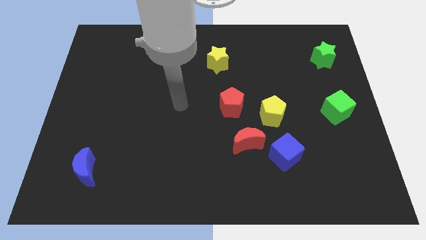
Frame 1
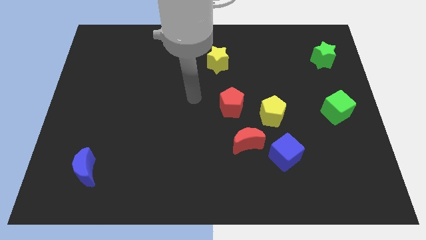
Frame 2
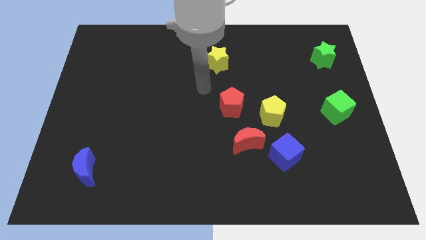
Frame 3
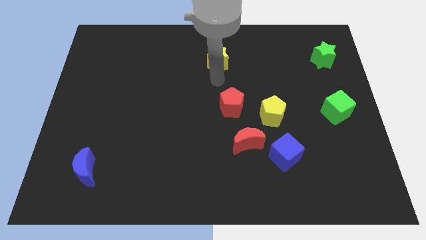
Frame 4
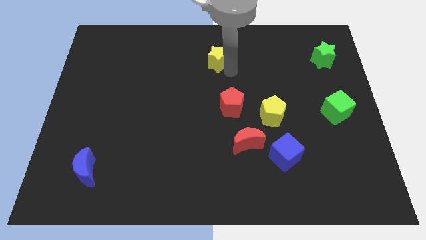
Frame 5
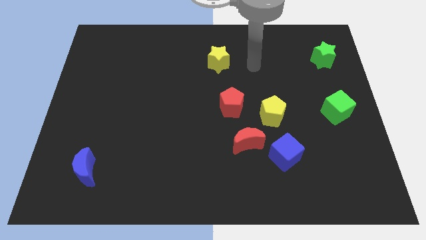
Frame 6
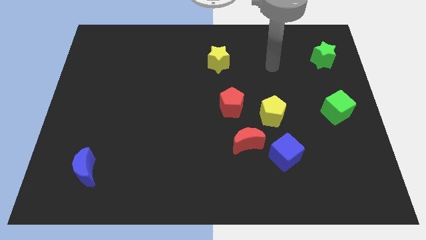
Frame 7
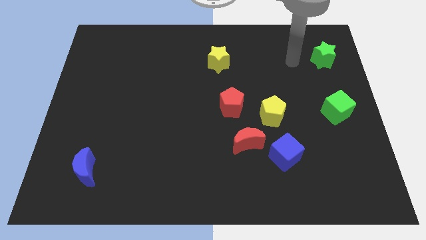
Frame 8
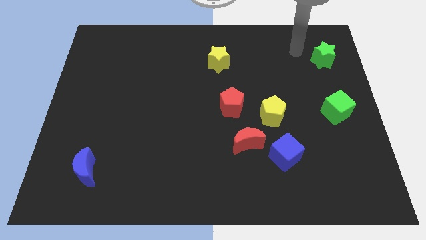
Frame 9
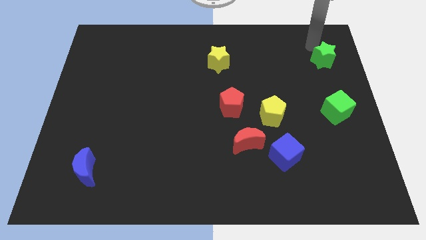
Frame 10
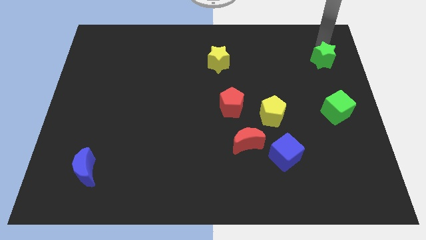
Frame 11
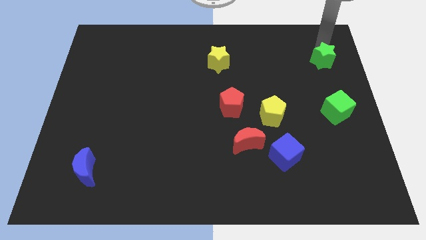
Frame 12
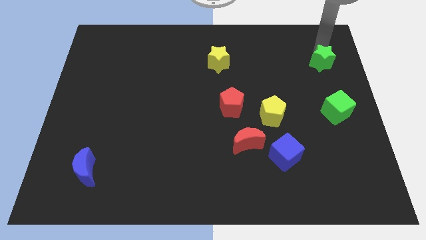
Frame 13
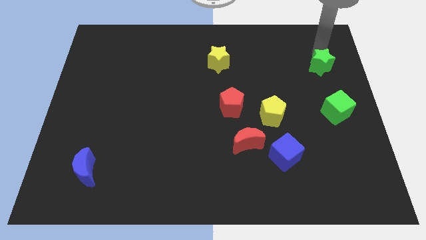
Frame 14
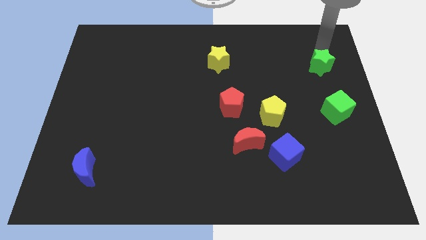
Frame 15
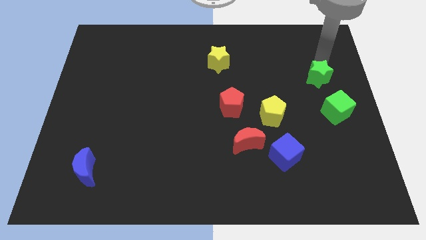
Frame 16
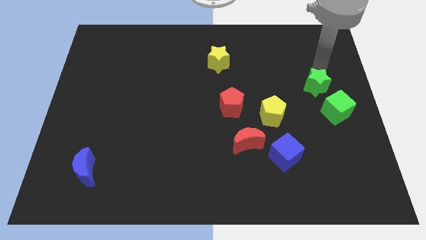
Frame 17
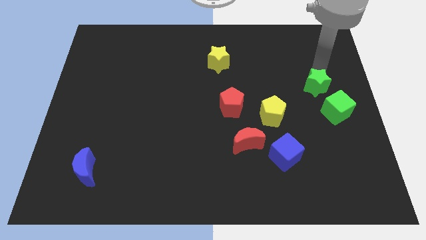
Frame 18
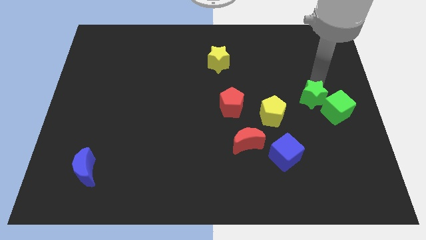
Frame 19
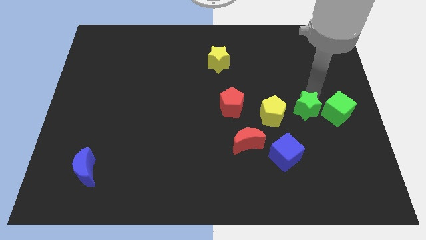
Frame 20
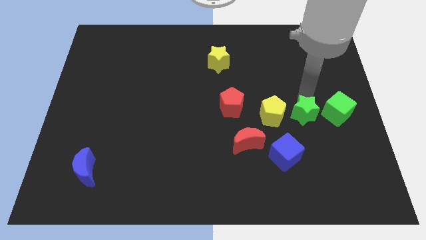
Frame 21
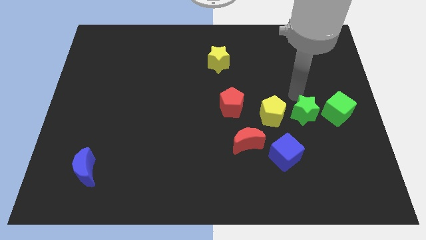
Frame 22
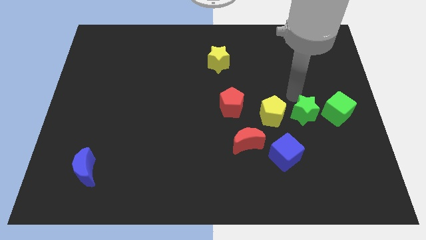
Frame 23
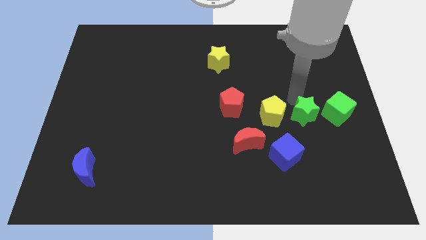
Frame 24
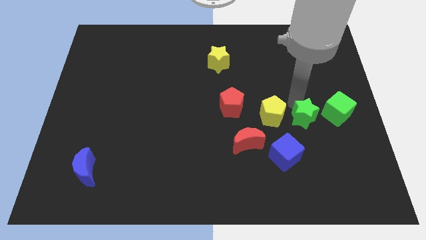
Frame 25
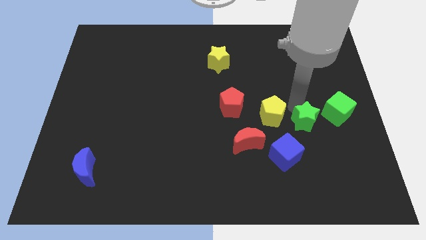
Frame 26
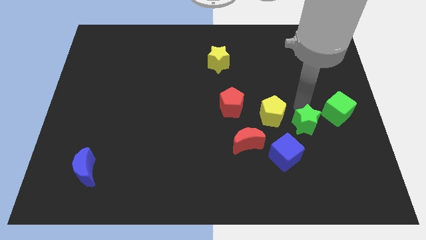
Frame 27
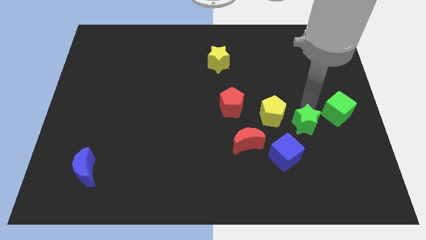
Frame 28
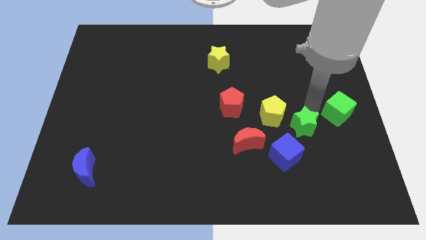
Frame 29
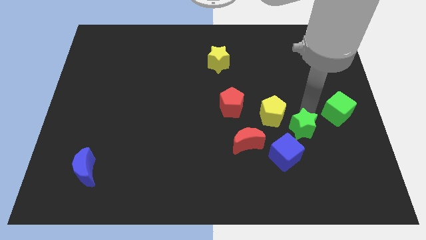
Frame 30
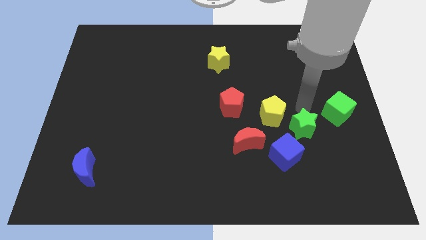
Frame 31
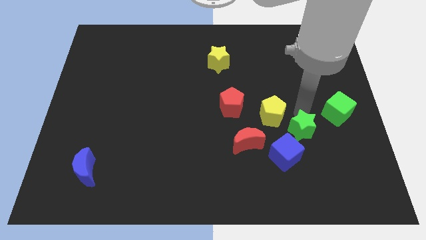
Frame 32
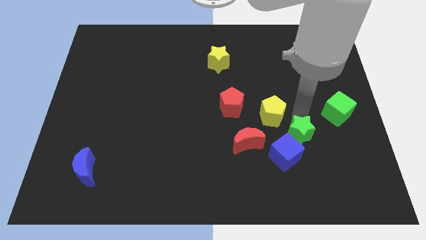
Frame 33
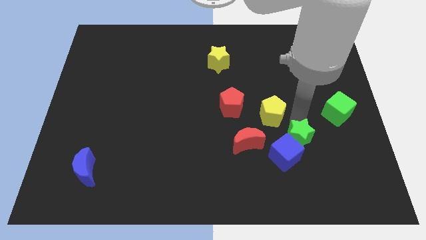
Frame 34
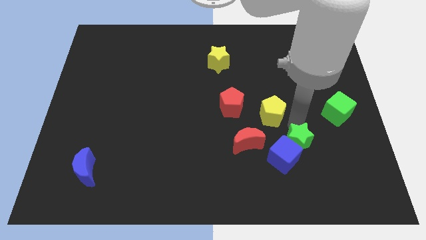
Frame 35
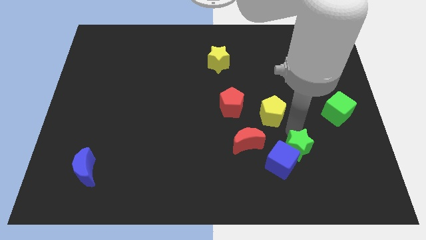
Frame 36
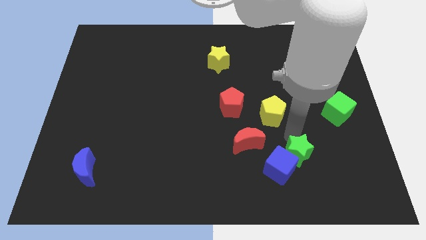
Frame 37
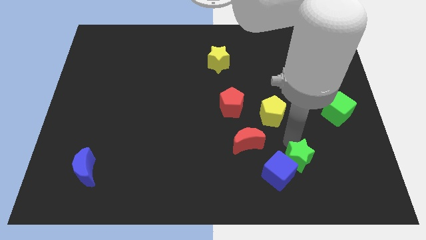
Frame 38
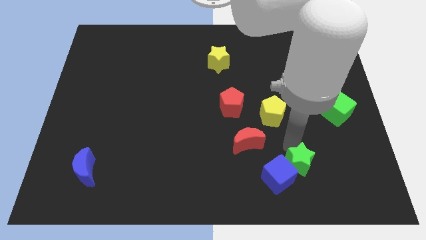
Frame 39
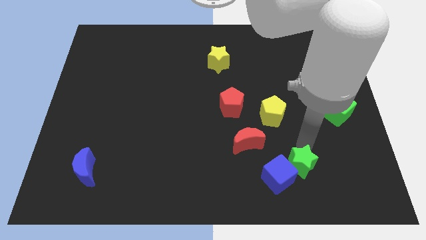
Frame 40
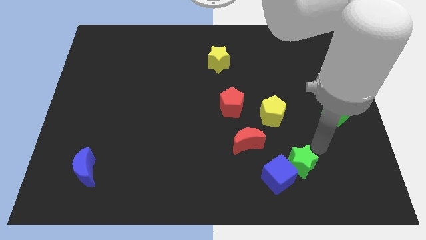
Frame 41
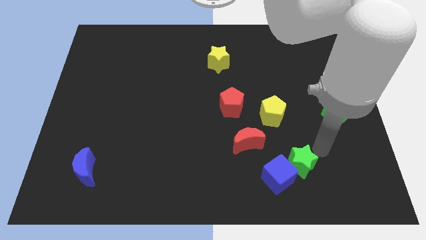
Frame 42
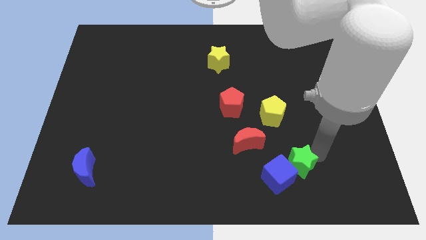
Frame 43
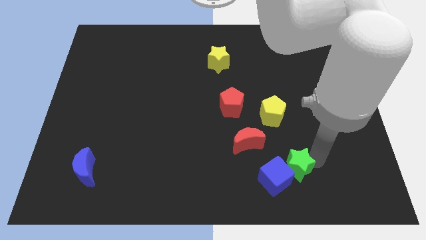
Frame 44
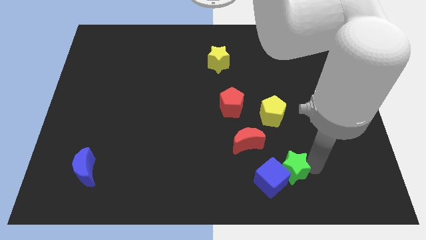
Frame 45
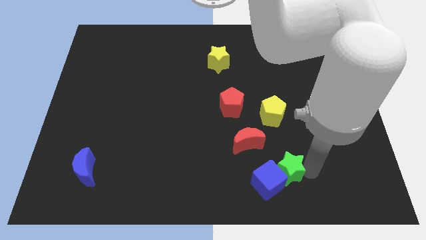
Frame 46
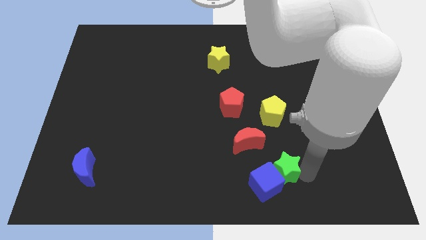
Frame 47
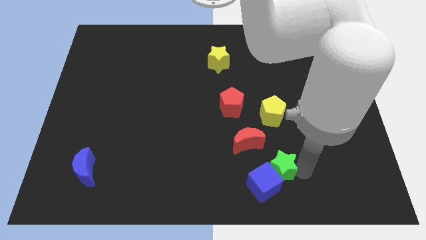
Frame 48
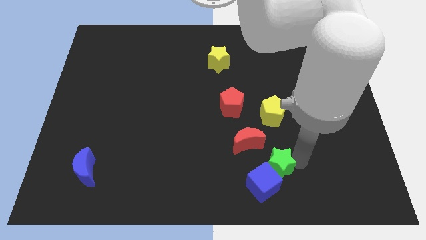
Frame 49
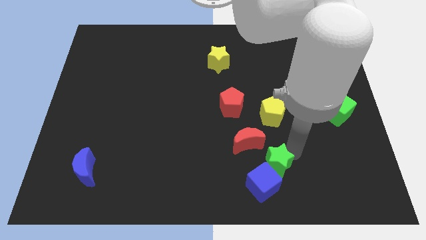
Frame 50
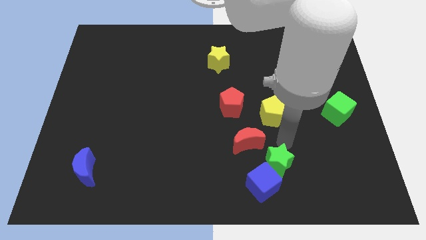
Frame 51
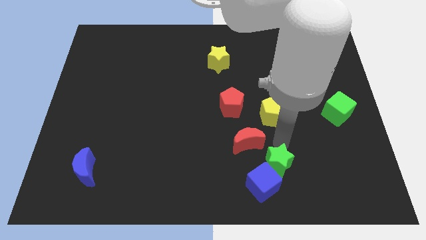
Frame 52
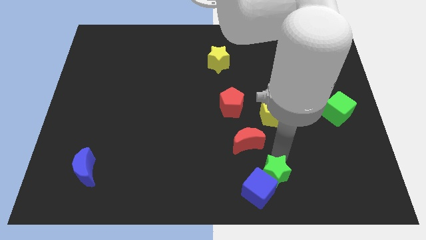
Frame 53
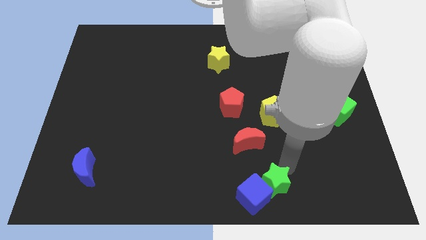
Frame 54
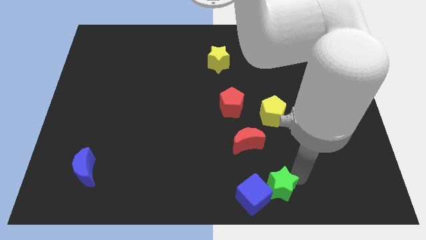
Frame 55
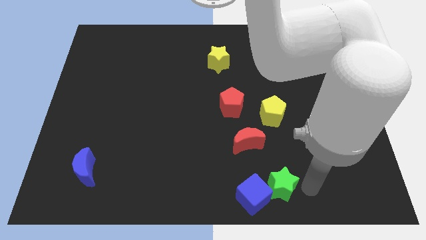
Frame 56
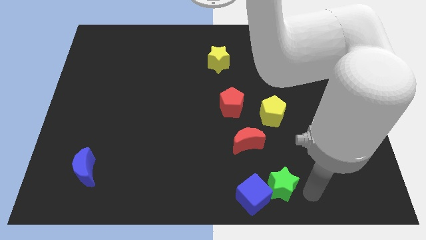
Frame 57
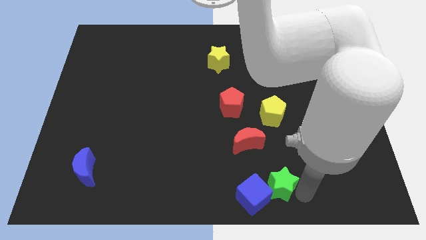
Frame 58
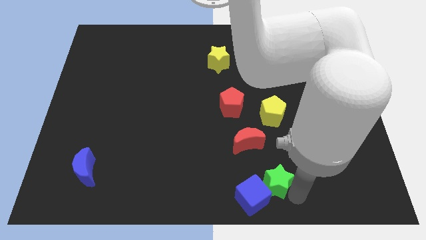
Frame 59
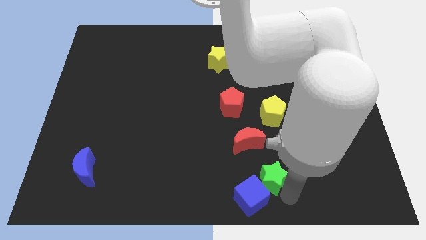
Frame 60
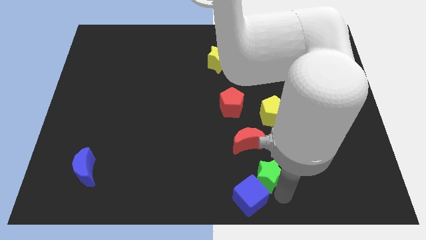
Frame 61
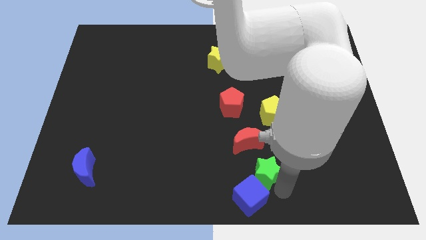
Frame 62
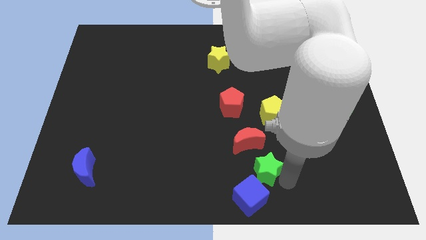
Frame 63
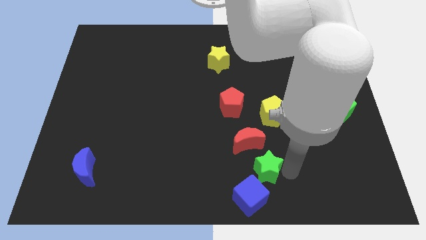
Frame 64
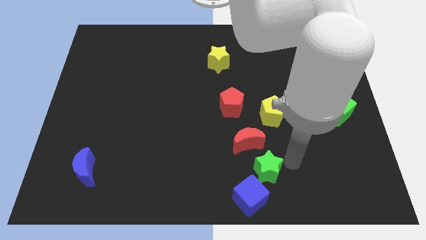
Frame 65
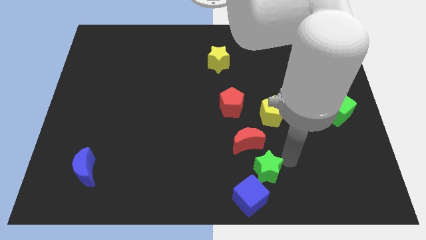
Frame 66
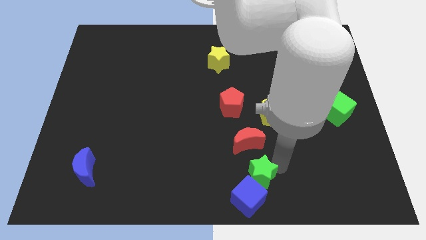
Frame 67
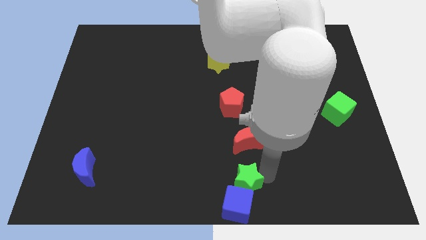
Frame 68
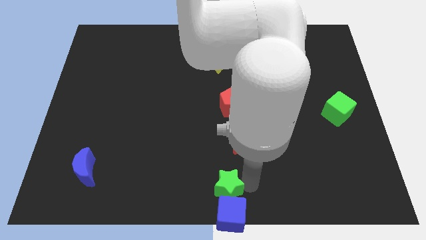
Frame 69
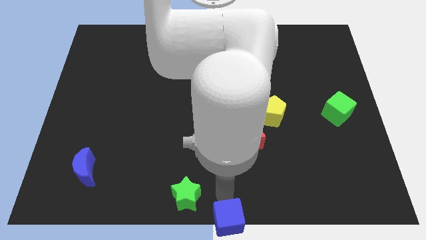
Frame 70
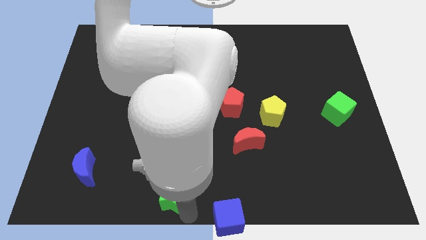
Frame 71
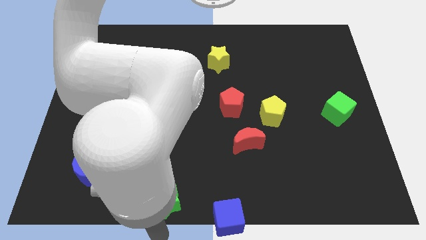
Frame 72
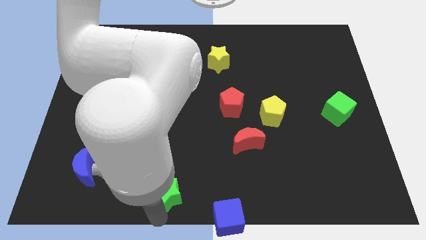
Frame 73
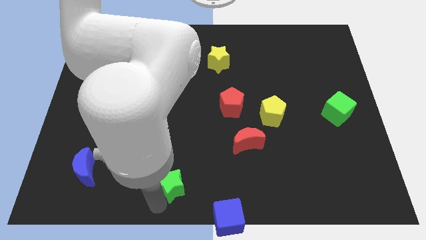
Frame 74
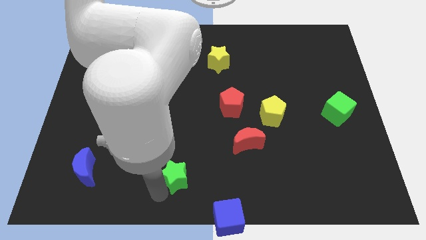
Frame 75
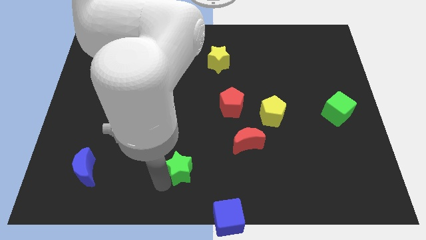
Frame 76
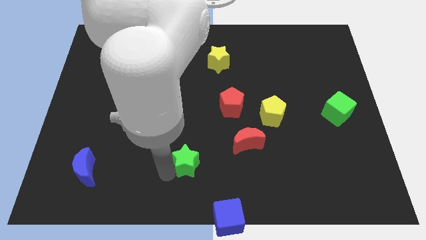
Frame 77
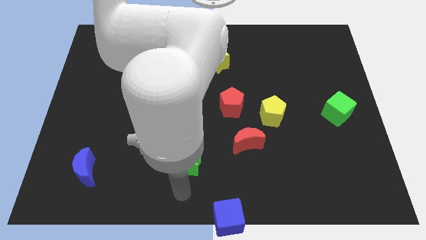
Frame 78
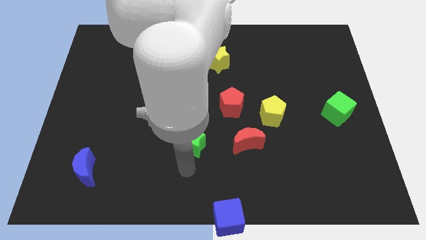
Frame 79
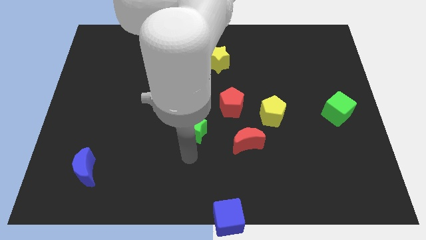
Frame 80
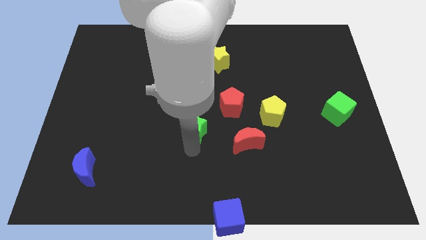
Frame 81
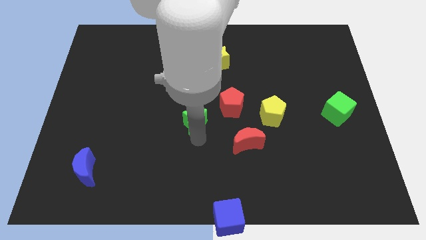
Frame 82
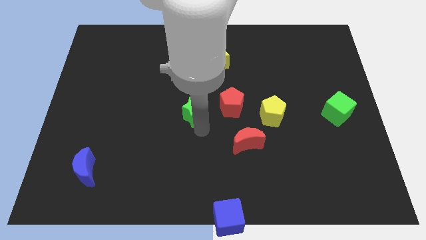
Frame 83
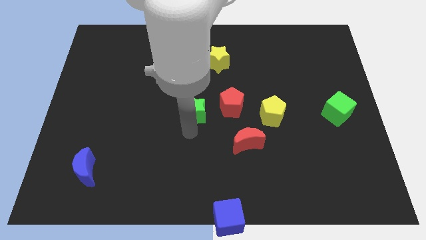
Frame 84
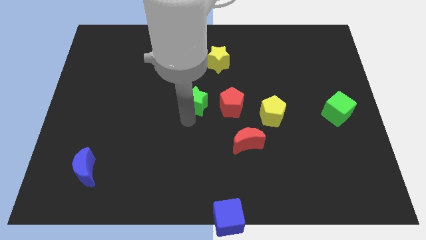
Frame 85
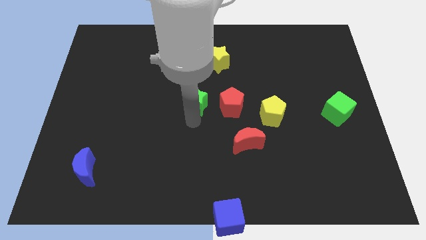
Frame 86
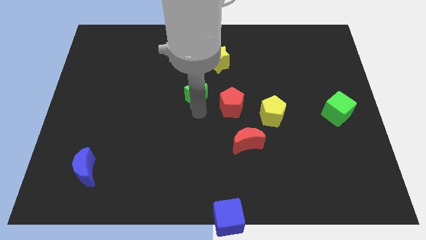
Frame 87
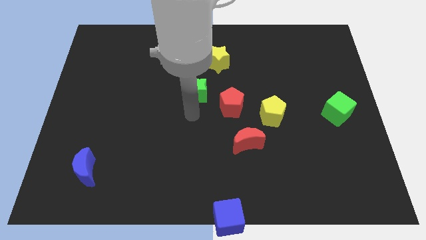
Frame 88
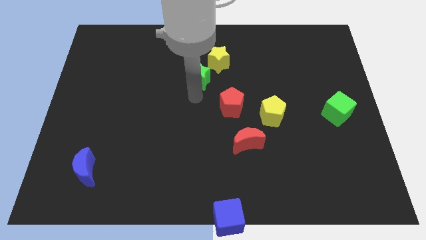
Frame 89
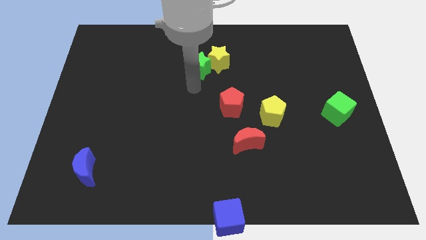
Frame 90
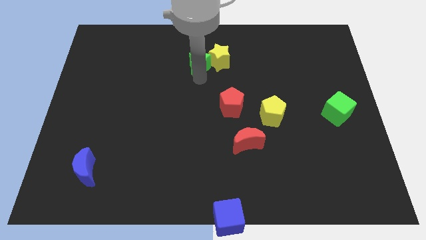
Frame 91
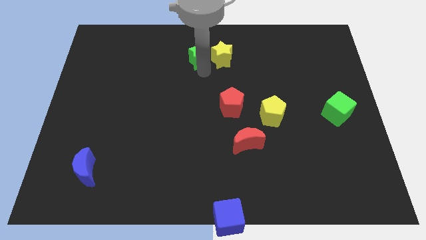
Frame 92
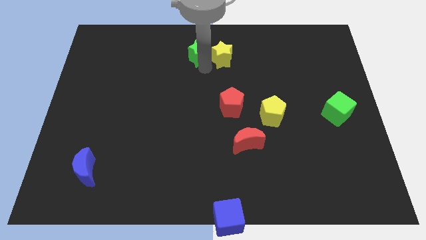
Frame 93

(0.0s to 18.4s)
put the green star to the top
